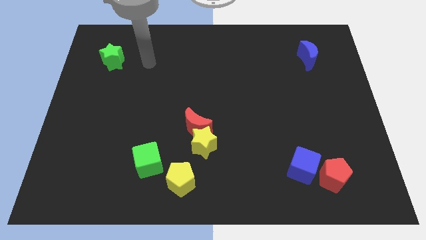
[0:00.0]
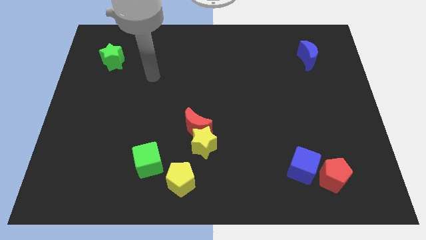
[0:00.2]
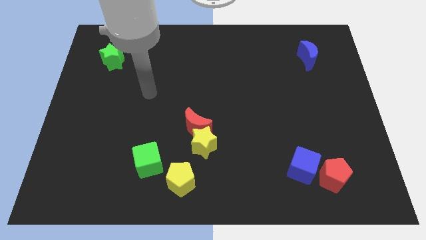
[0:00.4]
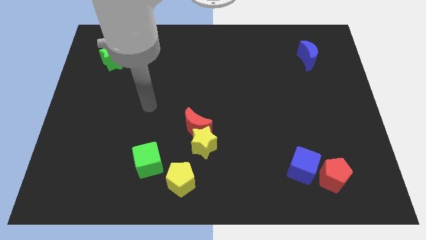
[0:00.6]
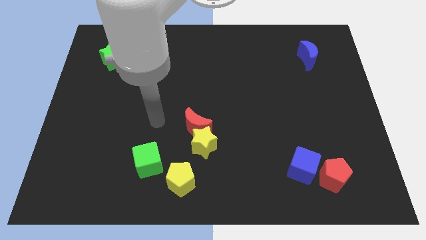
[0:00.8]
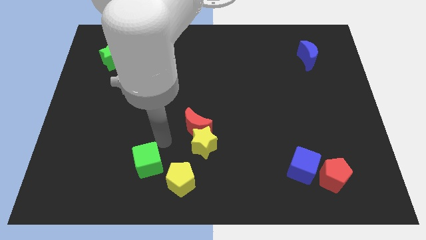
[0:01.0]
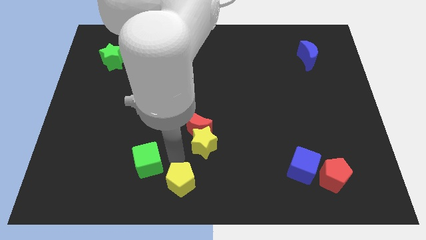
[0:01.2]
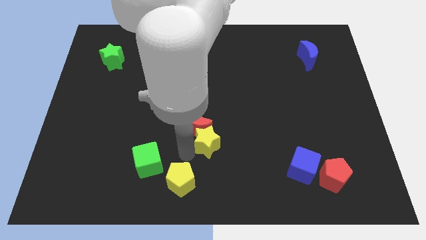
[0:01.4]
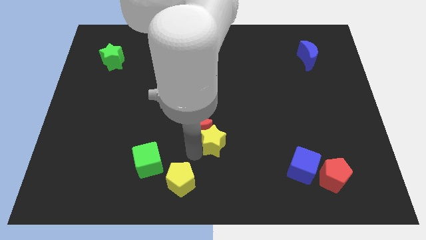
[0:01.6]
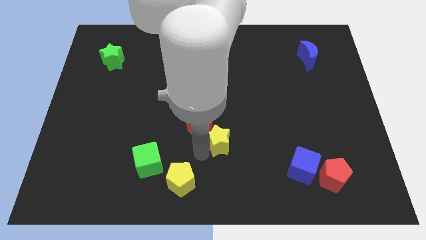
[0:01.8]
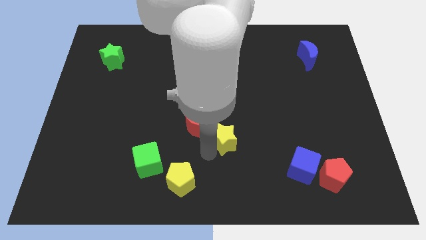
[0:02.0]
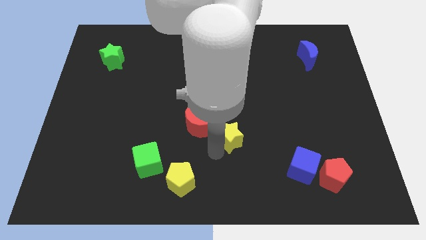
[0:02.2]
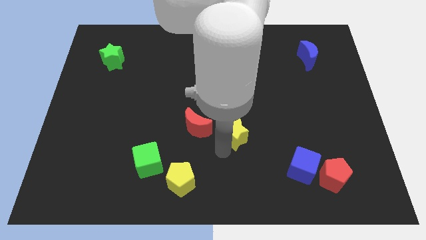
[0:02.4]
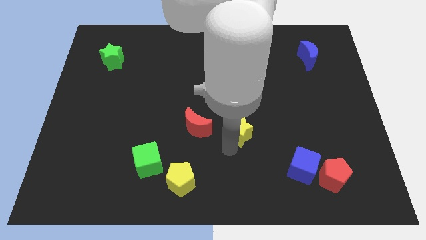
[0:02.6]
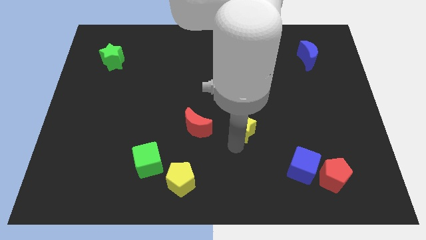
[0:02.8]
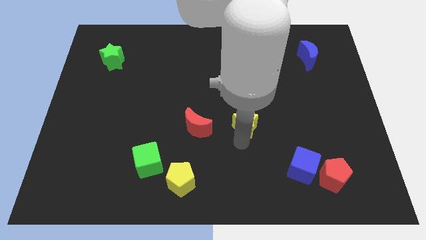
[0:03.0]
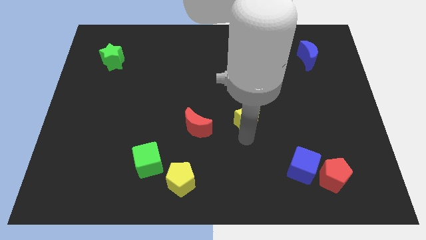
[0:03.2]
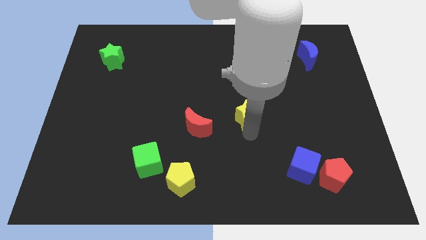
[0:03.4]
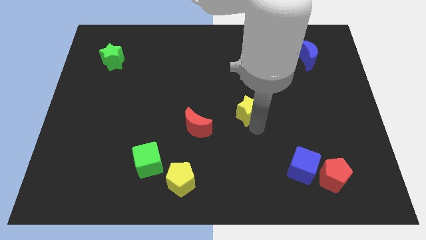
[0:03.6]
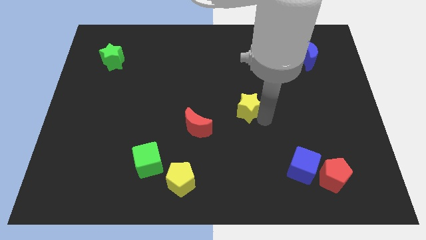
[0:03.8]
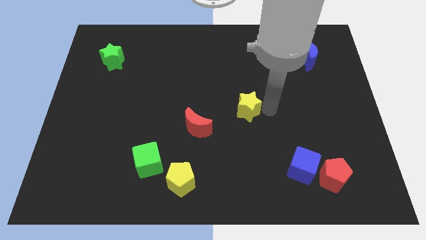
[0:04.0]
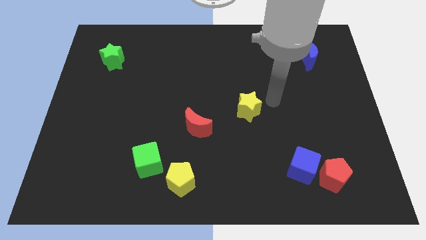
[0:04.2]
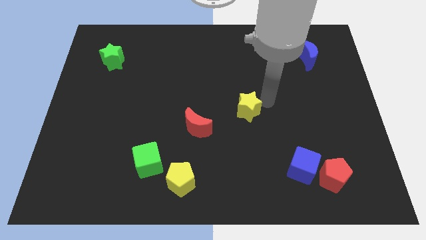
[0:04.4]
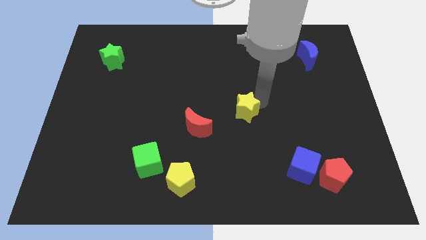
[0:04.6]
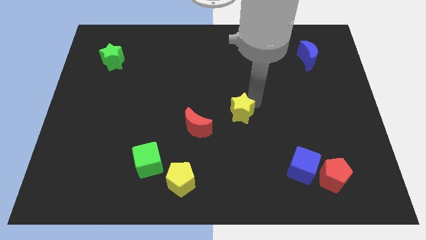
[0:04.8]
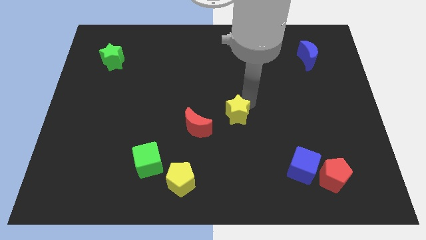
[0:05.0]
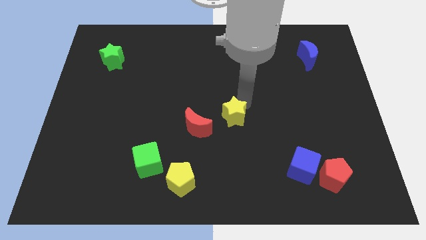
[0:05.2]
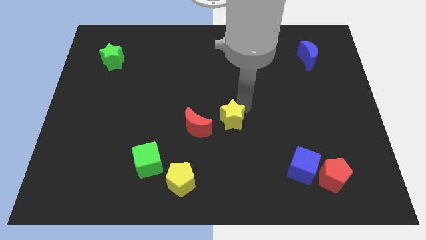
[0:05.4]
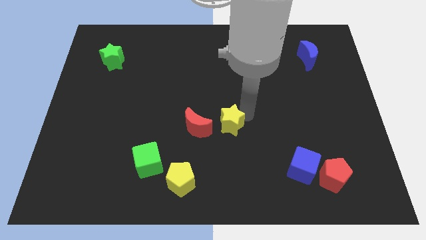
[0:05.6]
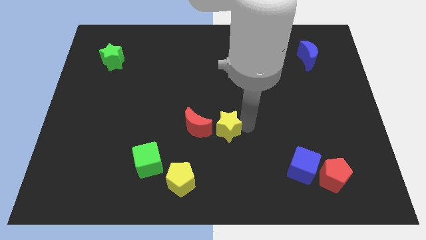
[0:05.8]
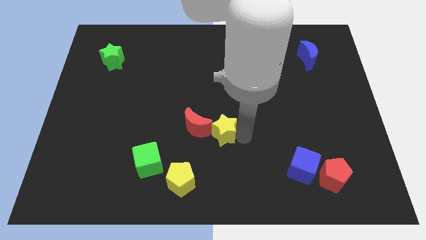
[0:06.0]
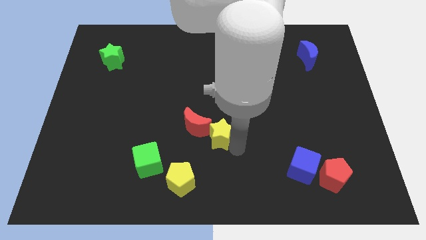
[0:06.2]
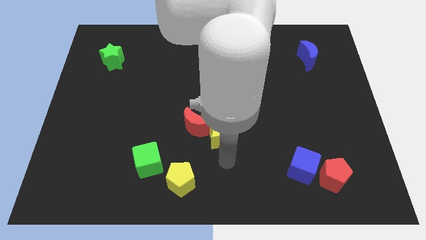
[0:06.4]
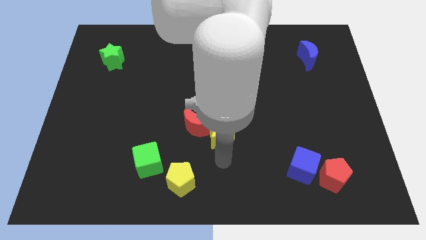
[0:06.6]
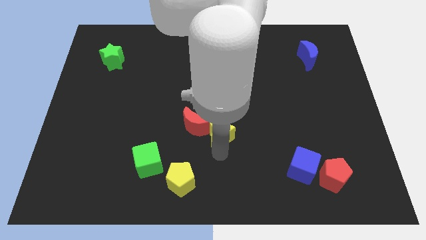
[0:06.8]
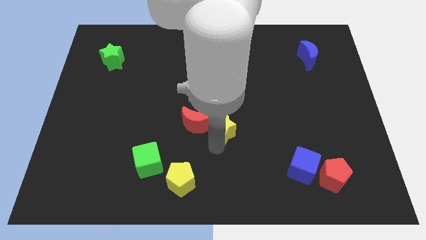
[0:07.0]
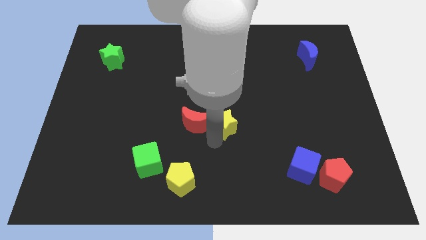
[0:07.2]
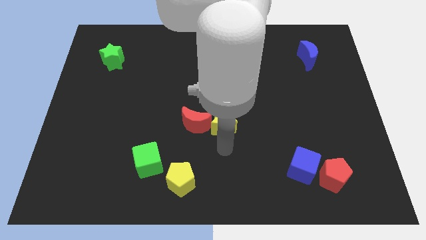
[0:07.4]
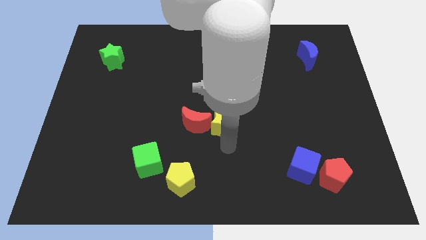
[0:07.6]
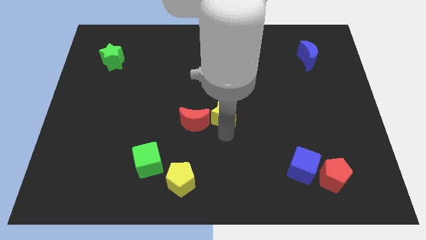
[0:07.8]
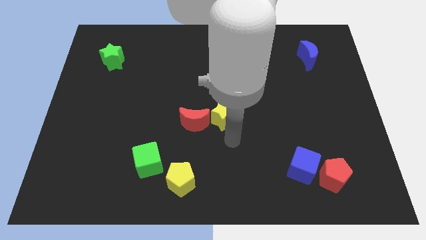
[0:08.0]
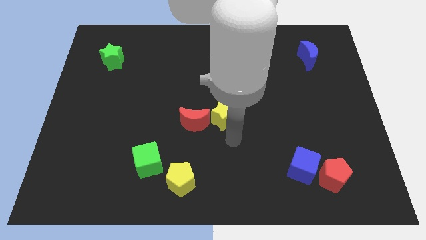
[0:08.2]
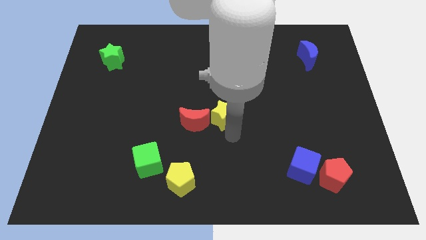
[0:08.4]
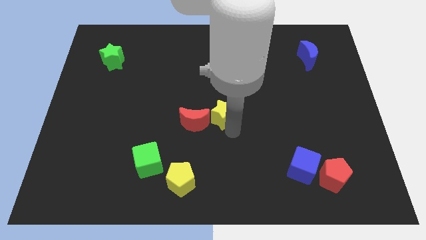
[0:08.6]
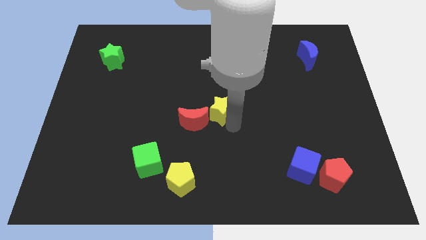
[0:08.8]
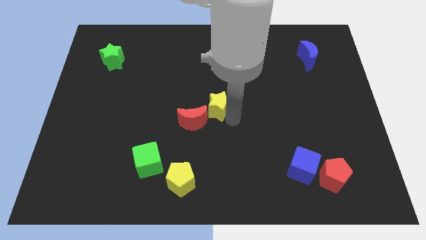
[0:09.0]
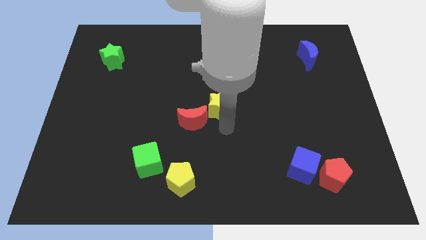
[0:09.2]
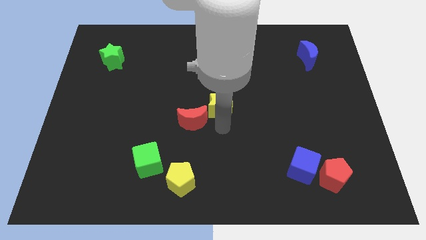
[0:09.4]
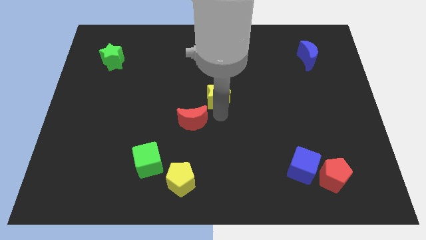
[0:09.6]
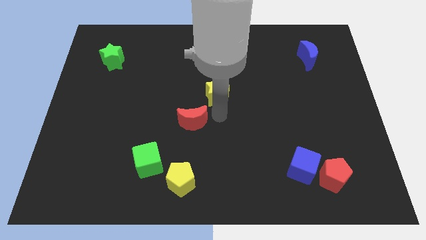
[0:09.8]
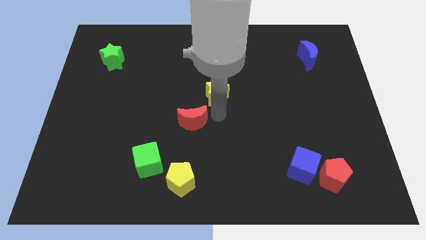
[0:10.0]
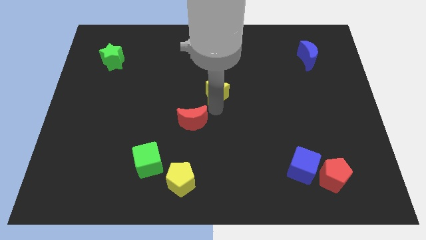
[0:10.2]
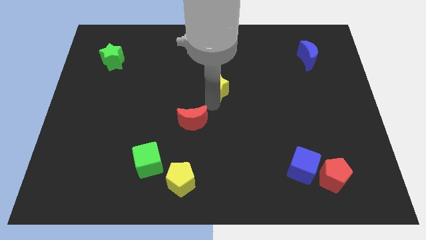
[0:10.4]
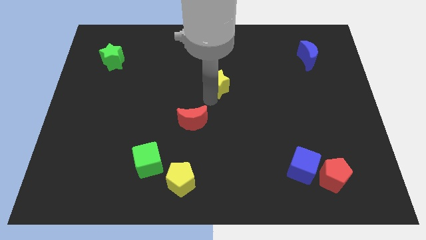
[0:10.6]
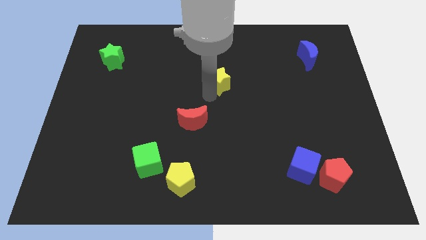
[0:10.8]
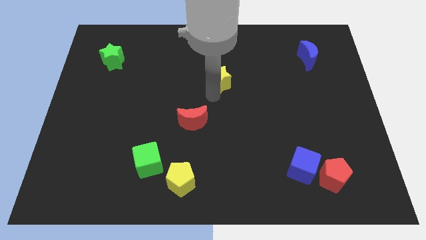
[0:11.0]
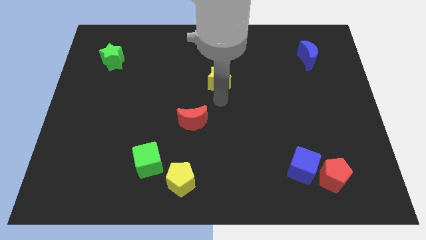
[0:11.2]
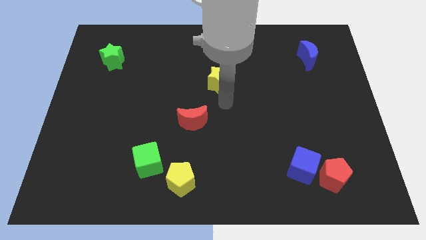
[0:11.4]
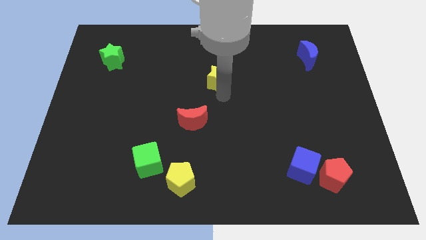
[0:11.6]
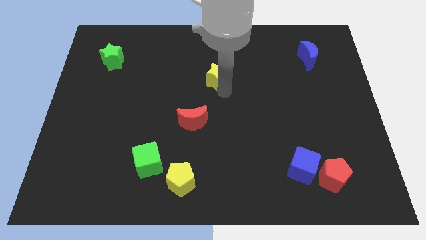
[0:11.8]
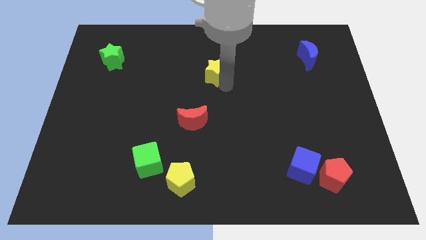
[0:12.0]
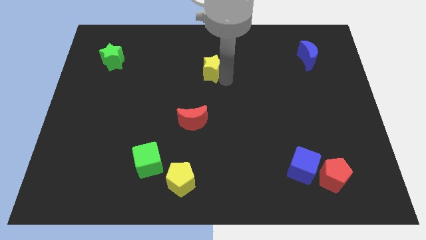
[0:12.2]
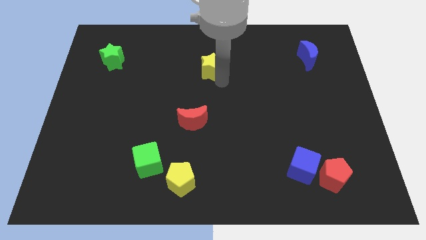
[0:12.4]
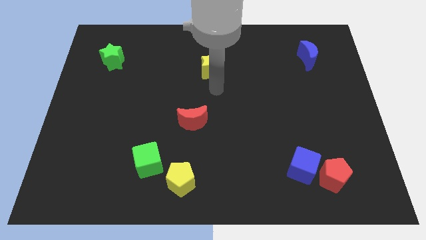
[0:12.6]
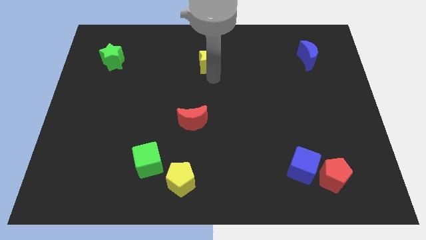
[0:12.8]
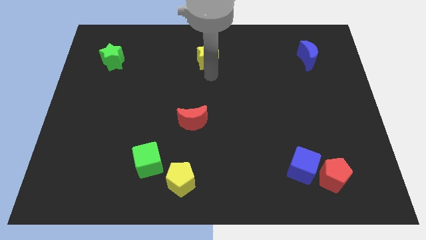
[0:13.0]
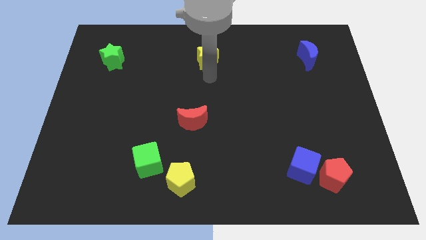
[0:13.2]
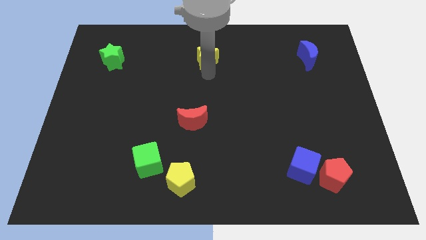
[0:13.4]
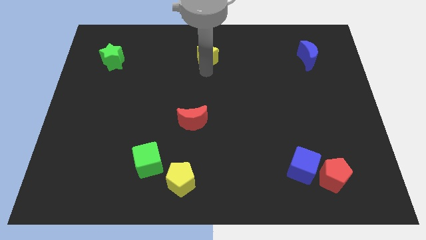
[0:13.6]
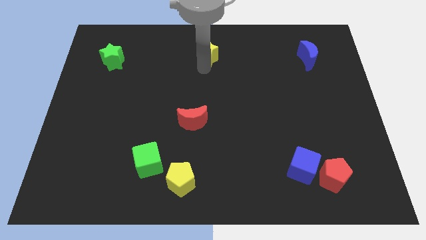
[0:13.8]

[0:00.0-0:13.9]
push the yellow star to the towards your base
